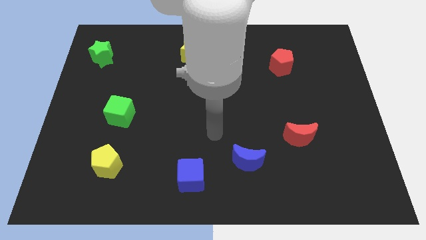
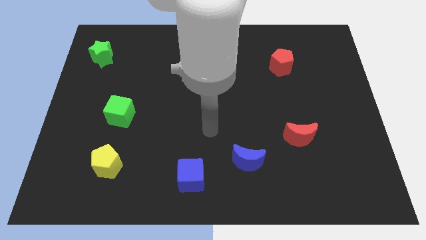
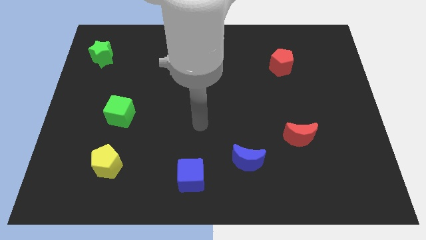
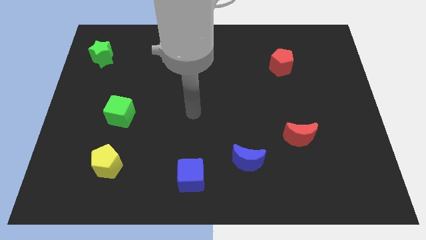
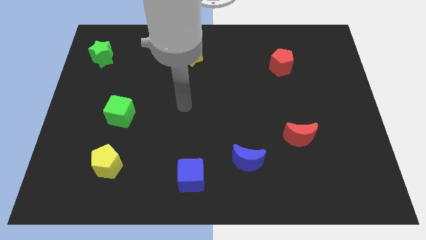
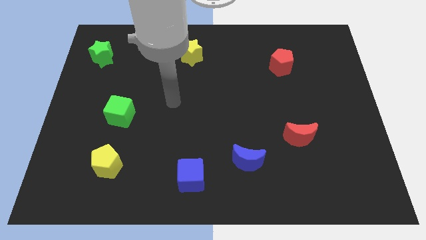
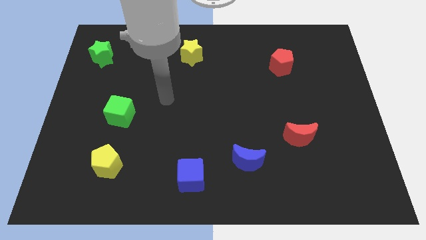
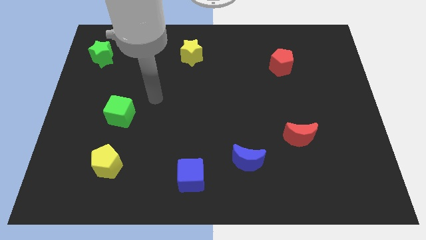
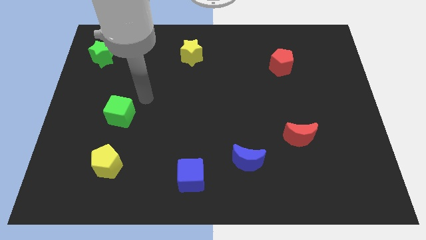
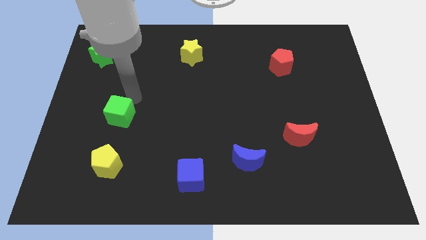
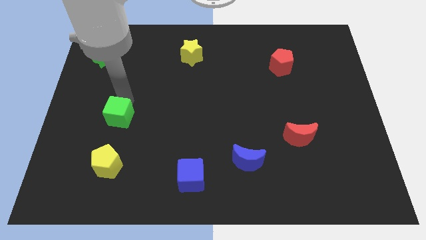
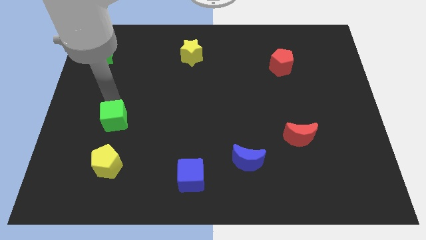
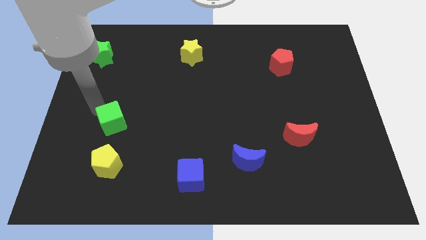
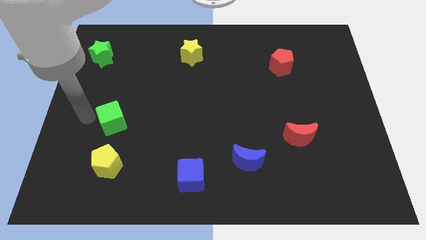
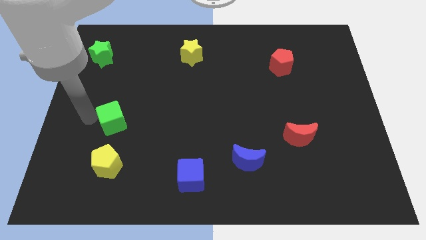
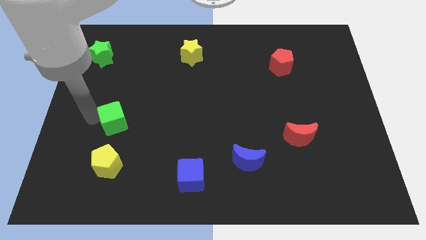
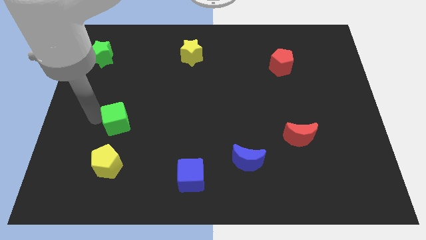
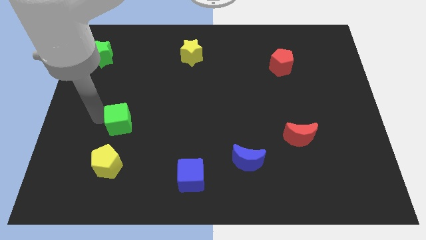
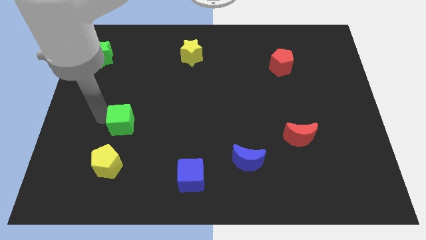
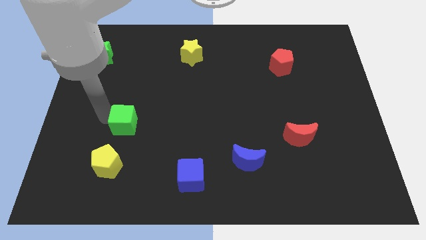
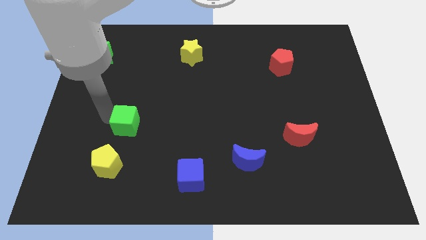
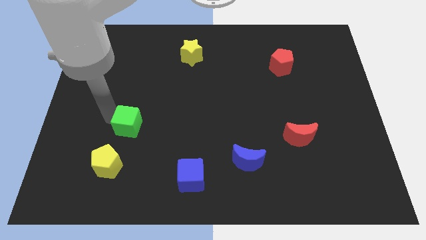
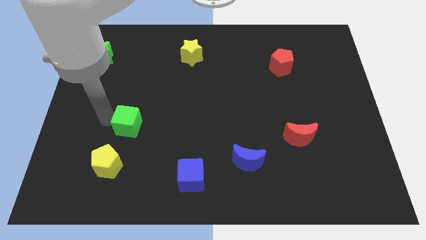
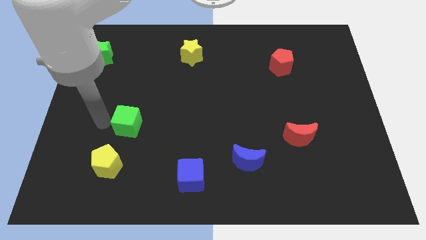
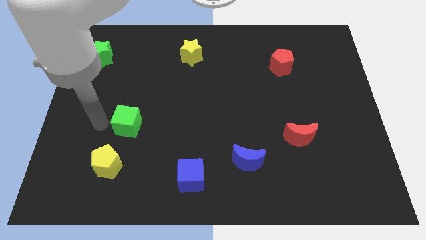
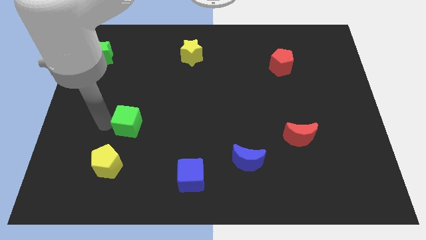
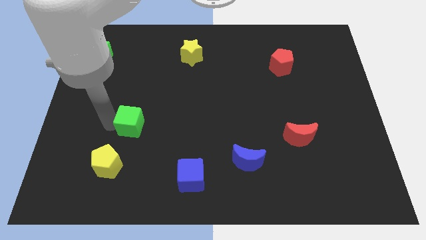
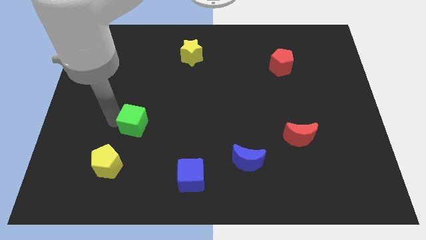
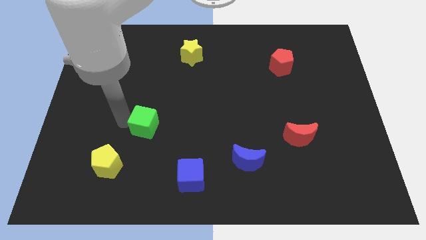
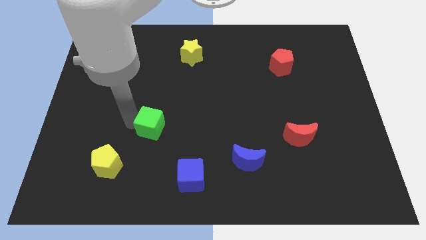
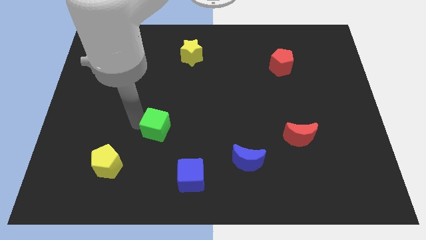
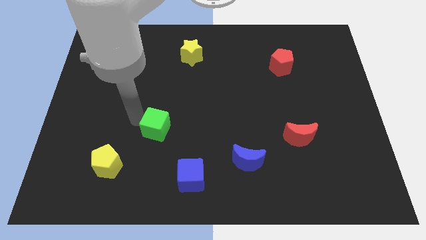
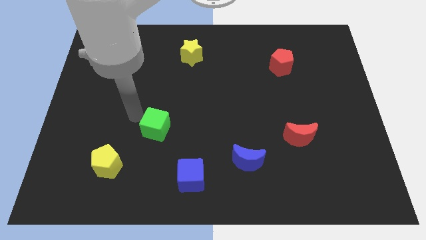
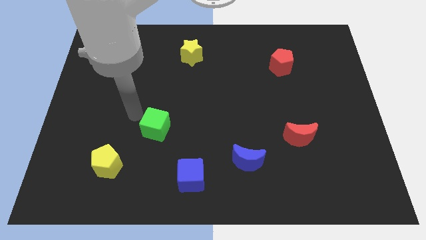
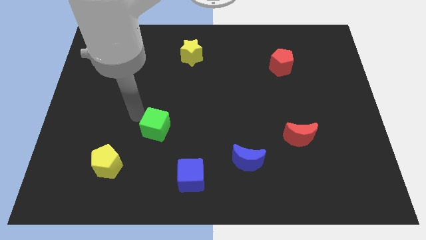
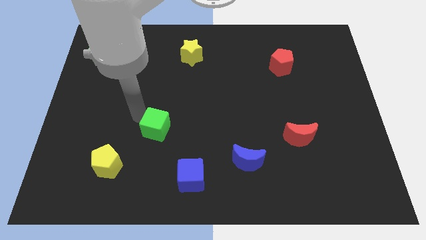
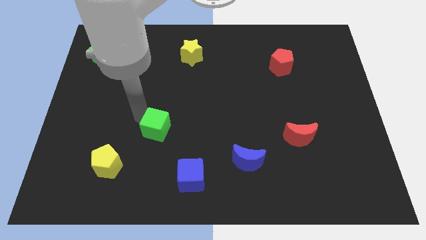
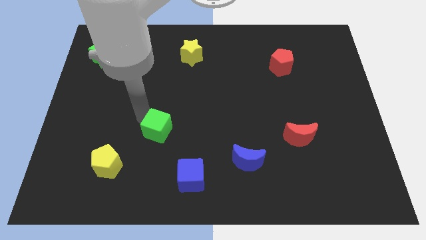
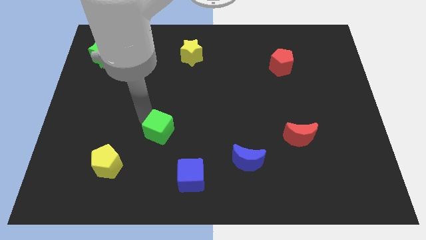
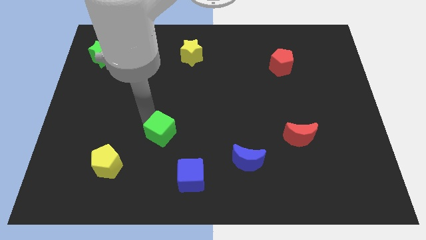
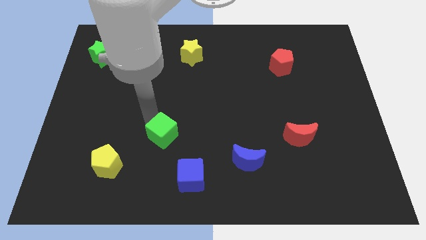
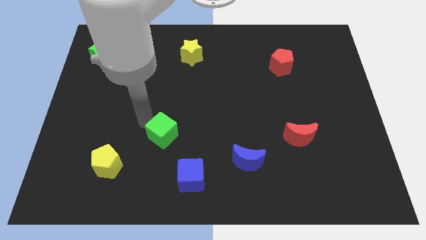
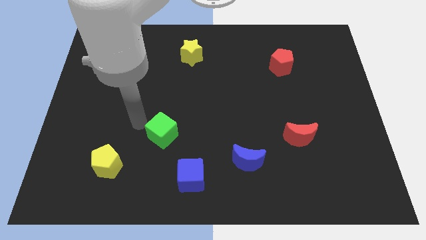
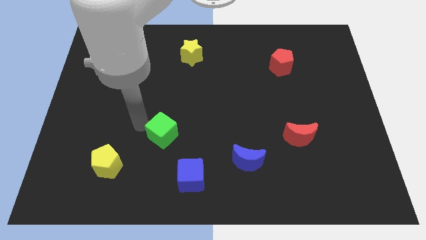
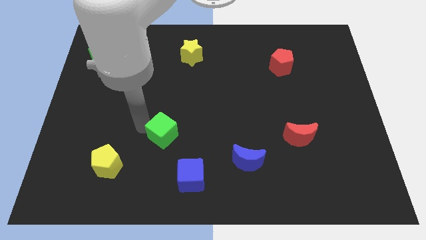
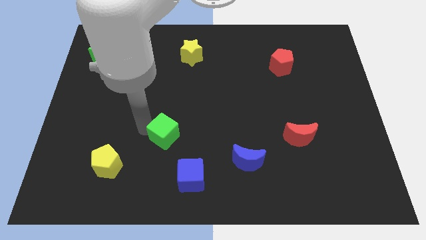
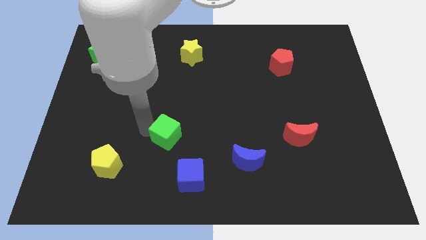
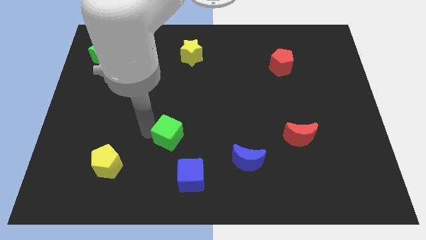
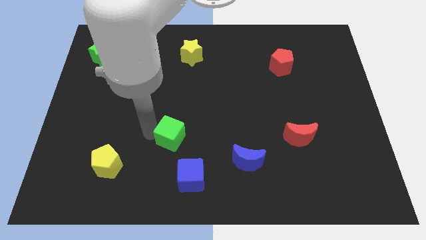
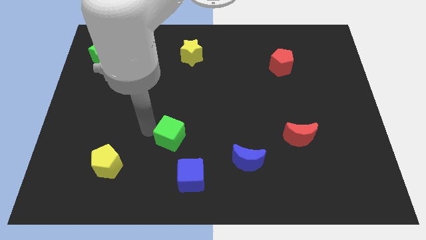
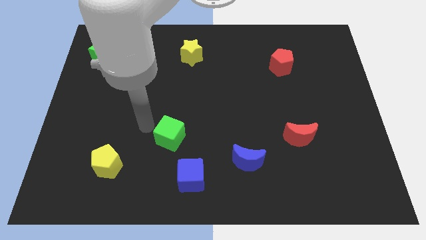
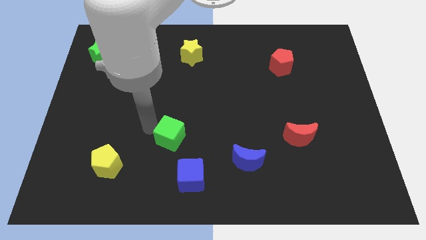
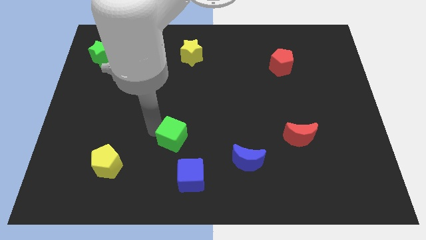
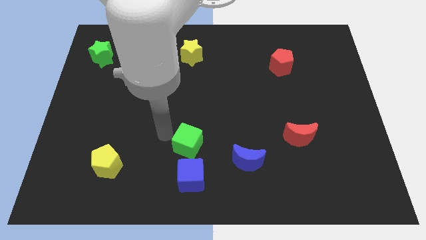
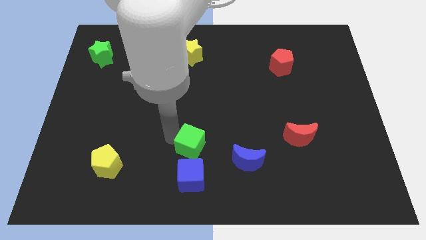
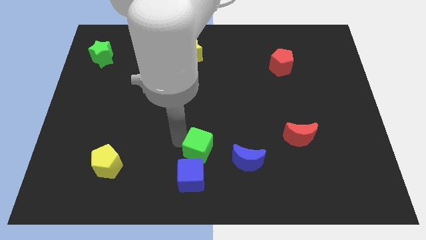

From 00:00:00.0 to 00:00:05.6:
put the green cube to the top right side of the blue cube

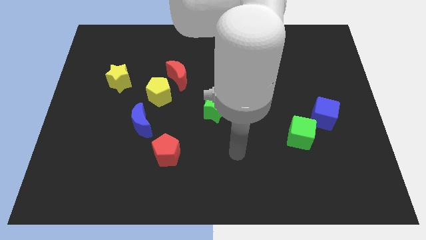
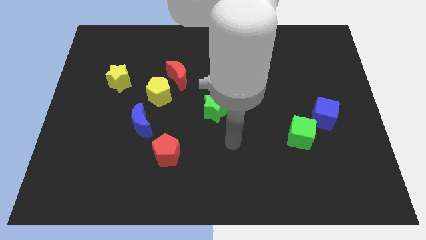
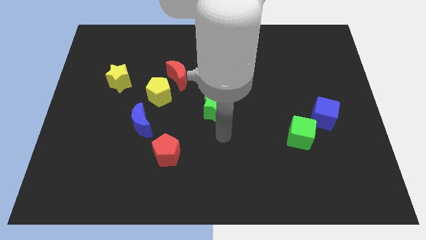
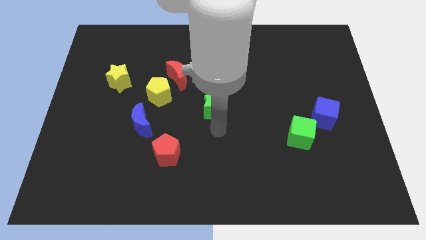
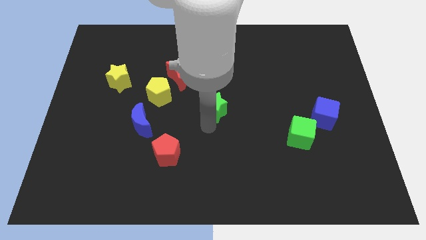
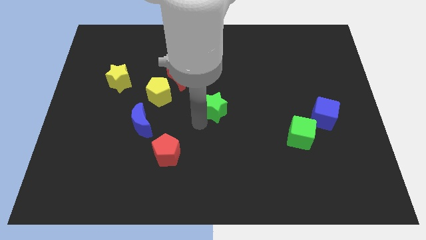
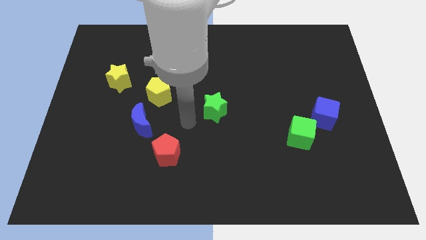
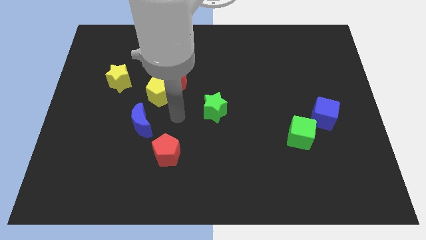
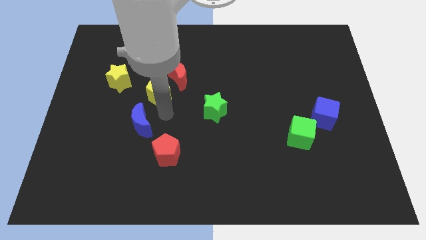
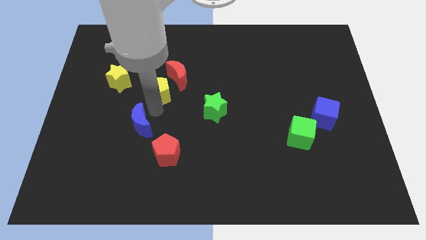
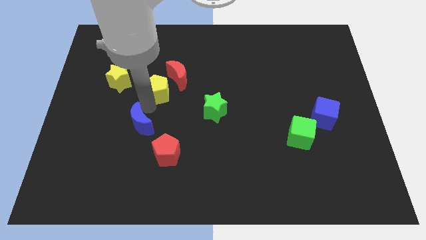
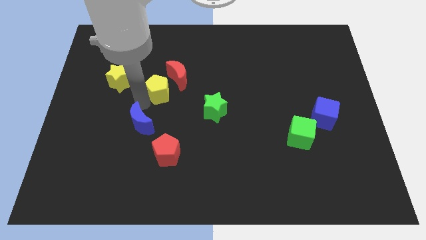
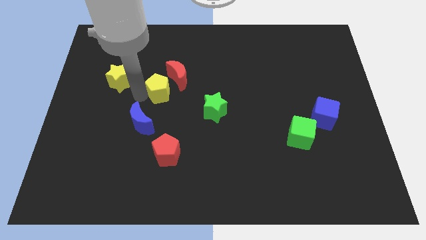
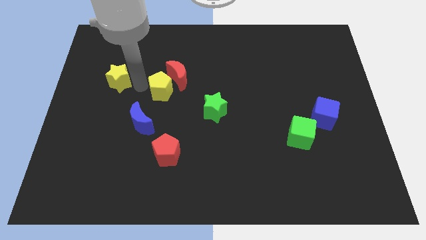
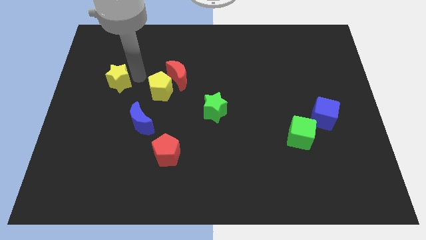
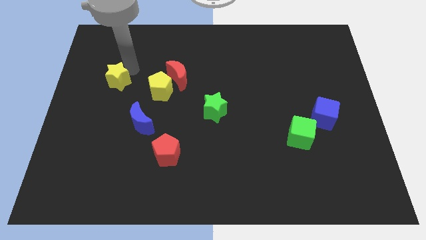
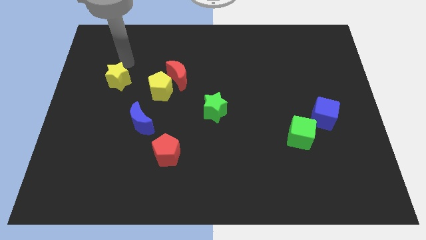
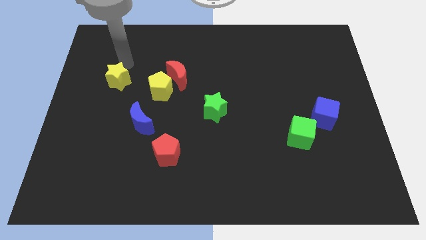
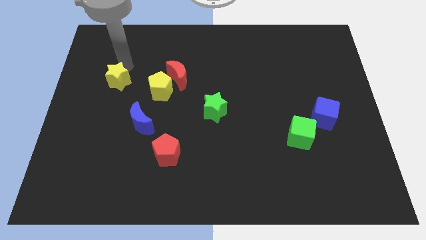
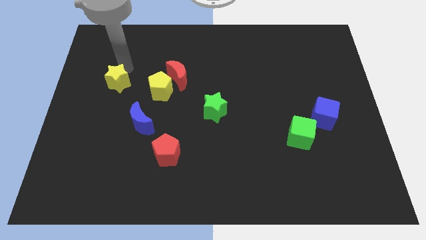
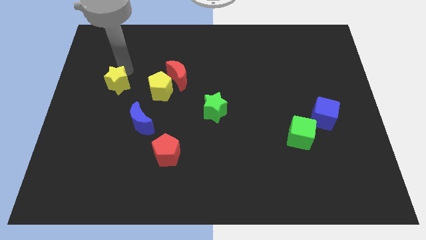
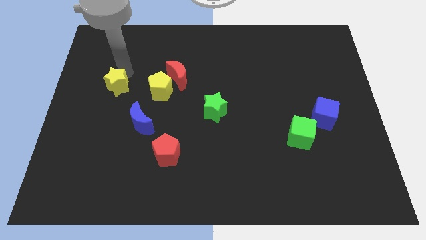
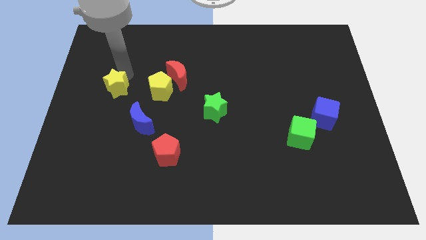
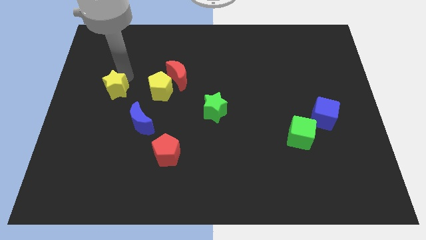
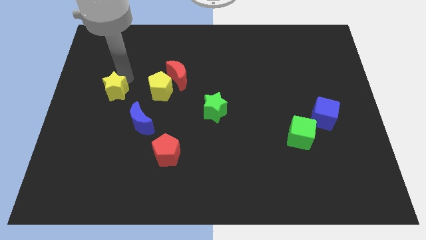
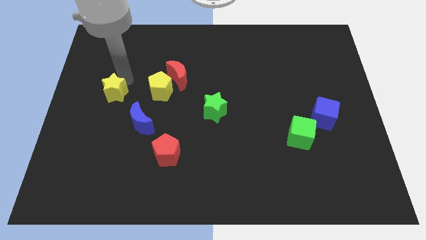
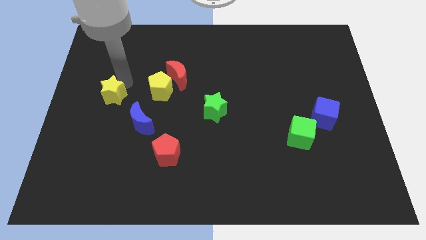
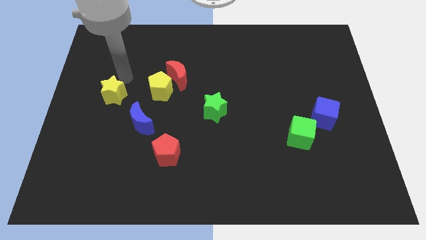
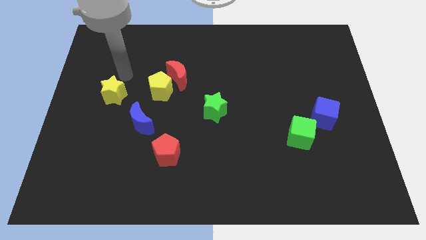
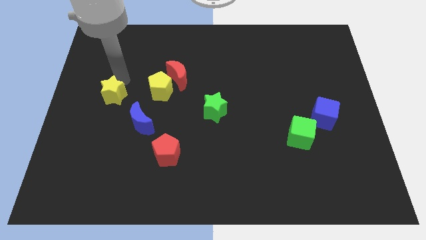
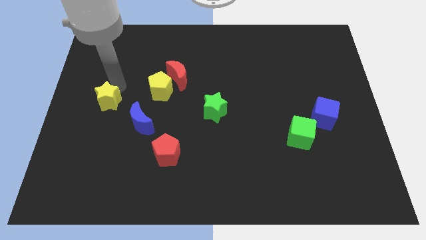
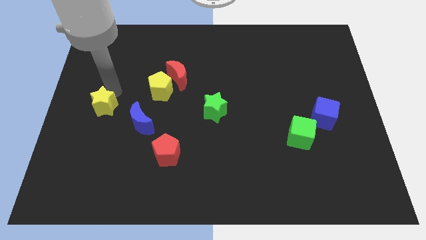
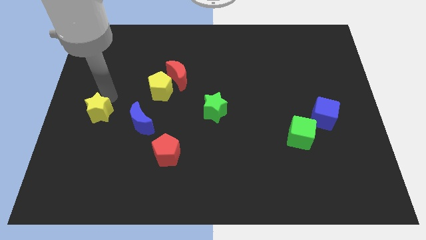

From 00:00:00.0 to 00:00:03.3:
push the yellow star left of the blue moon
